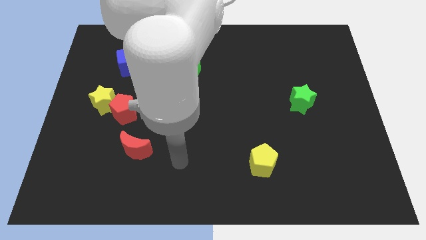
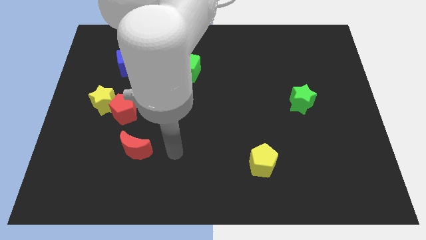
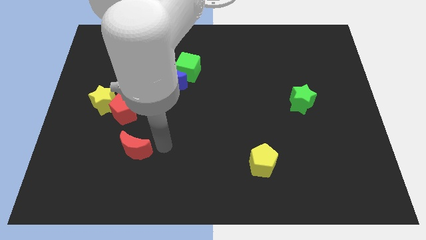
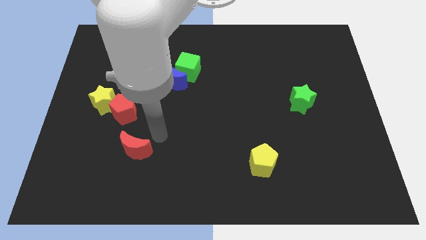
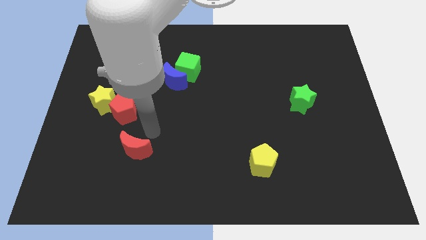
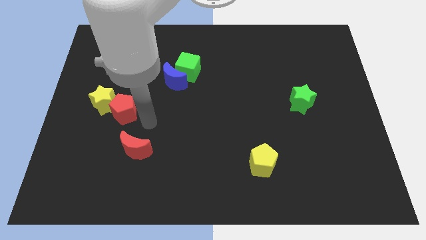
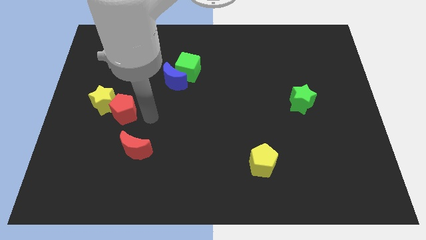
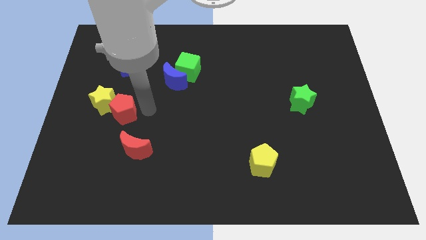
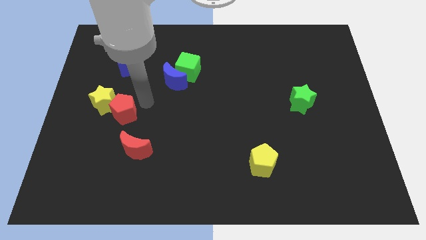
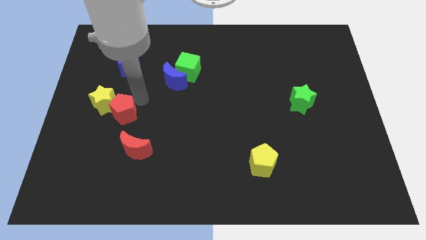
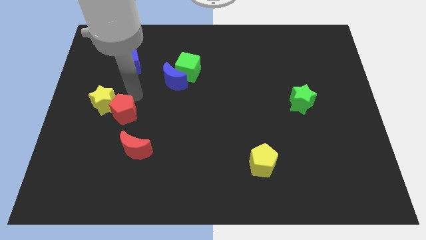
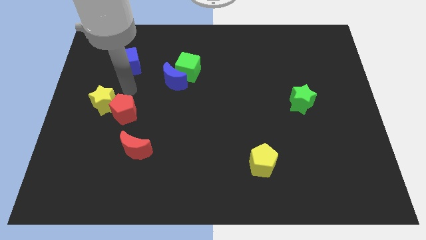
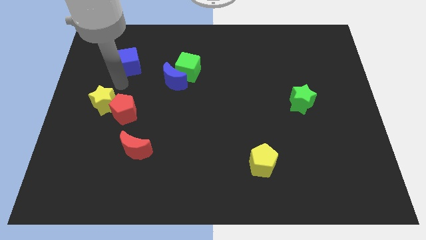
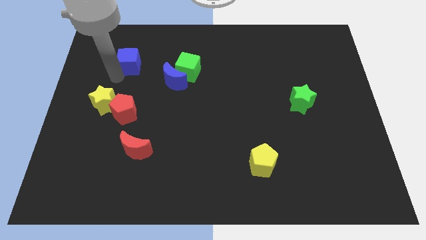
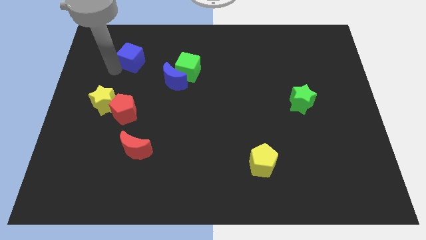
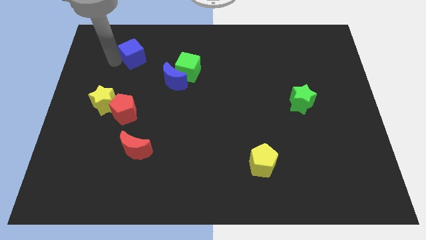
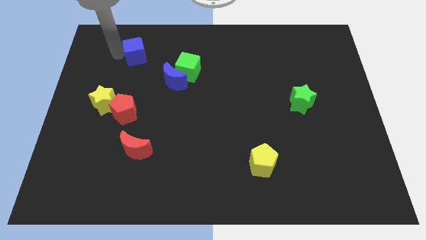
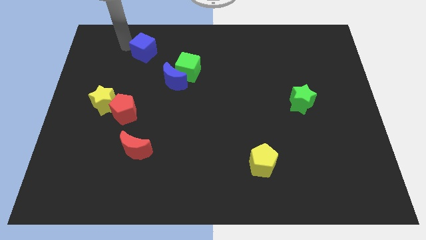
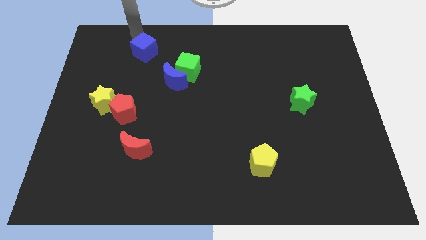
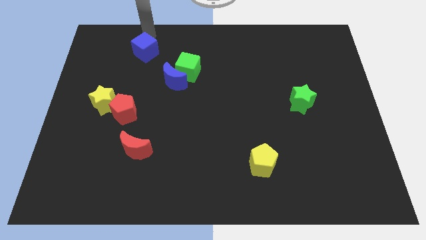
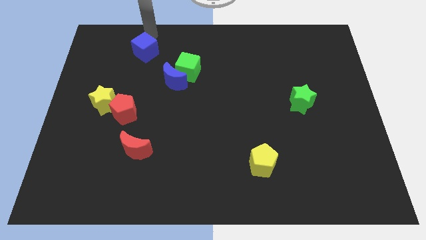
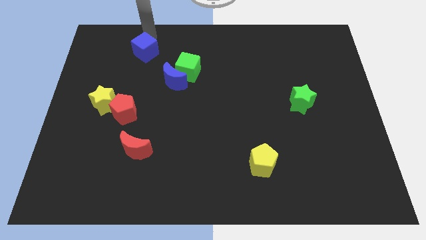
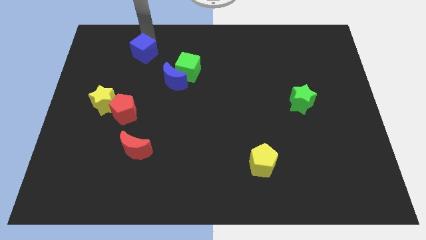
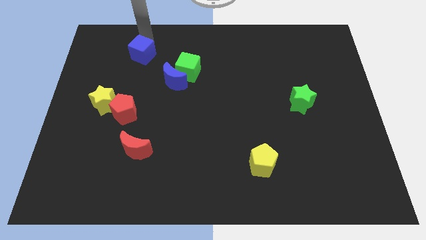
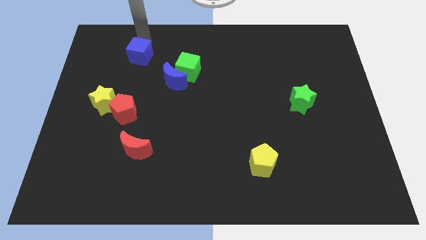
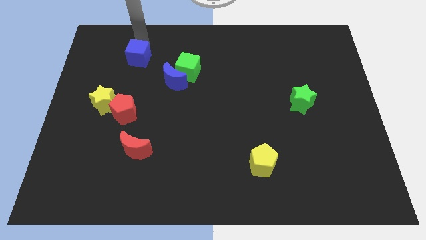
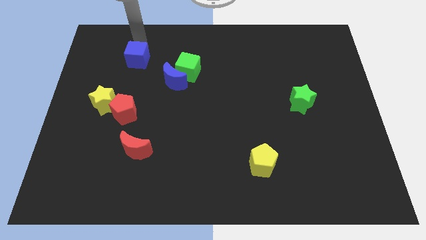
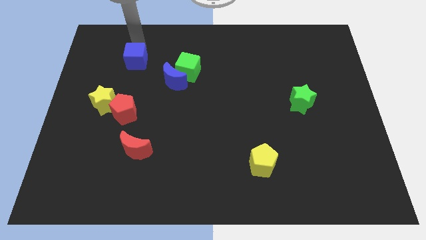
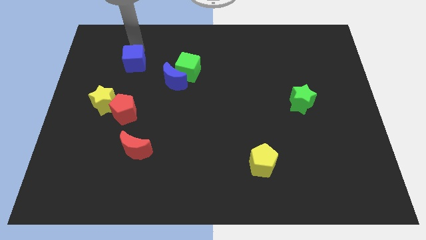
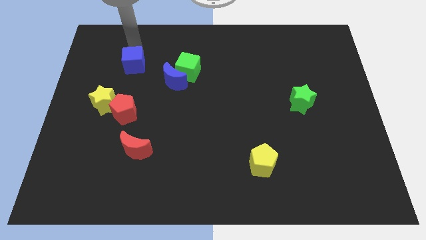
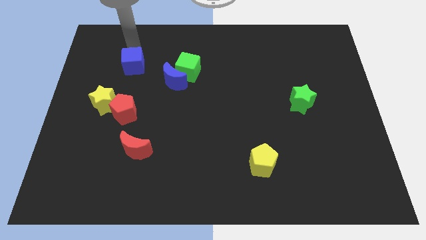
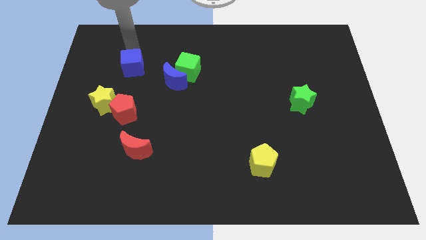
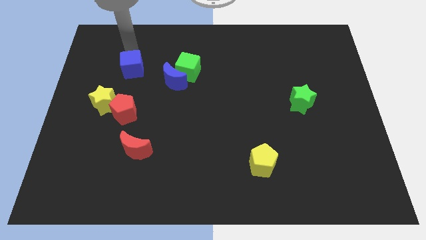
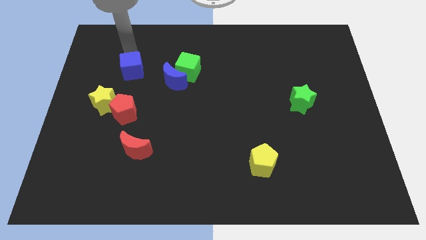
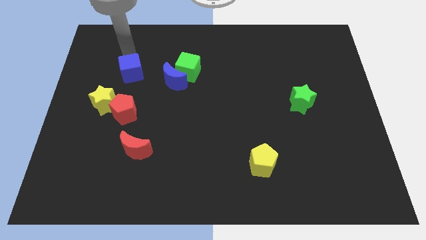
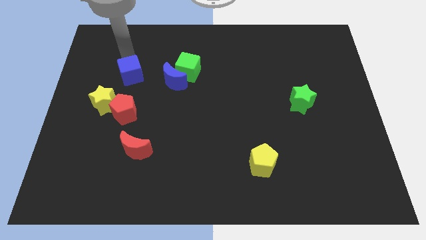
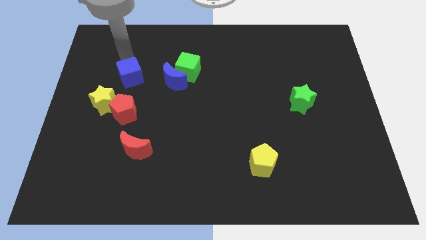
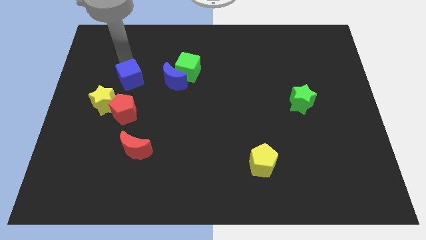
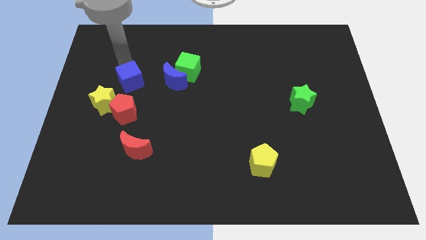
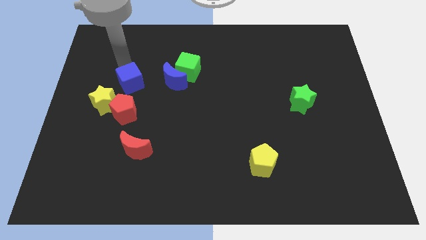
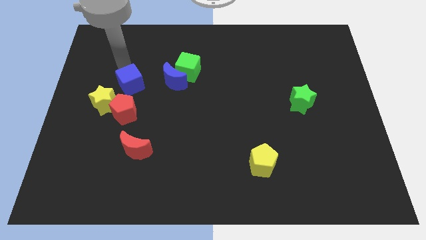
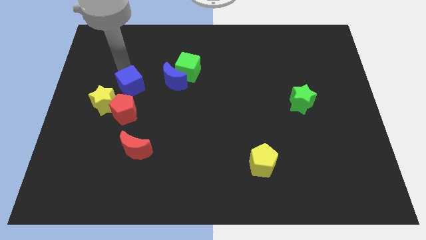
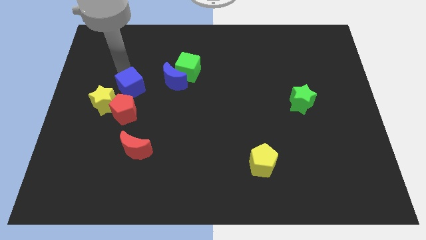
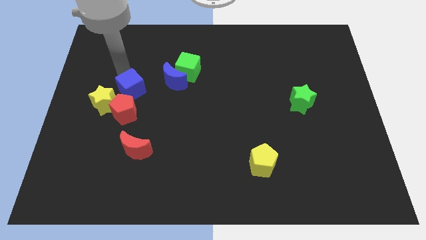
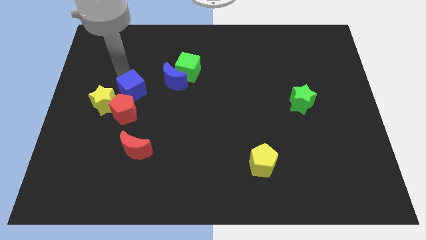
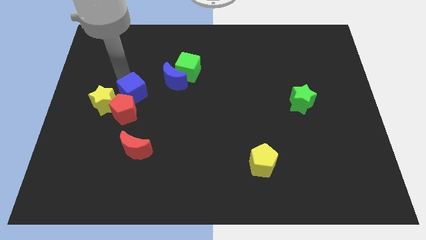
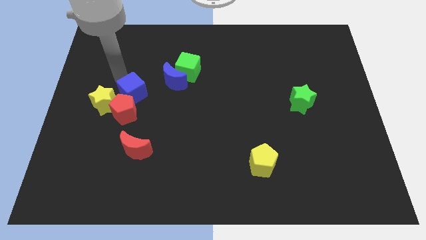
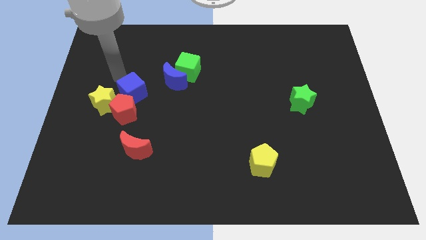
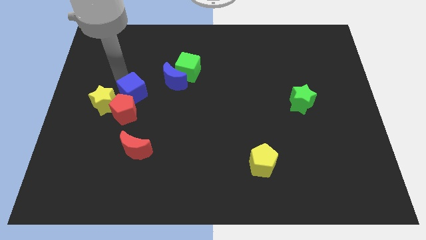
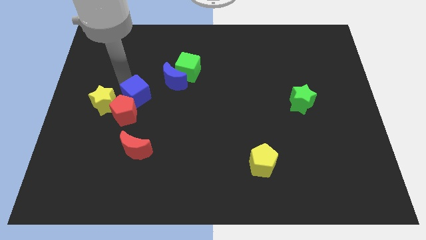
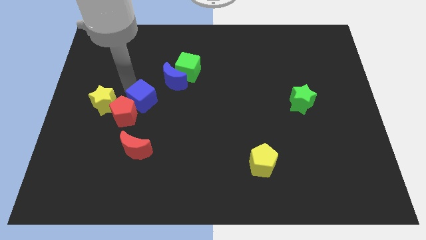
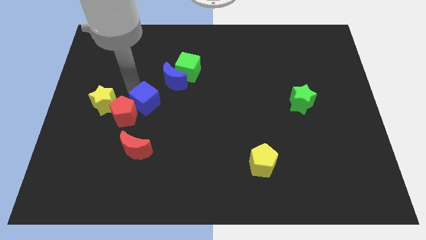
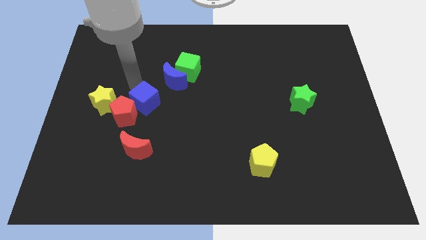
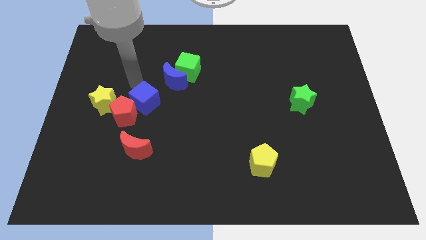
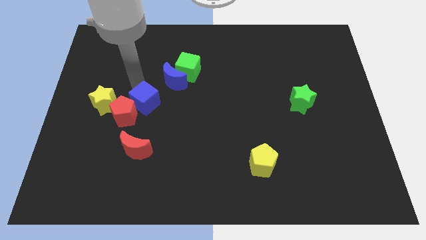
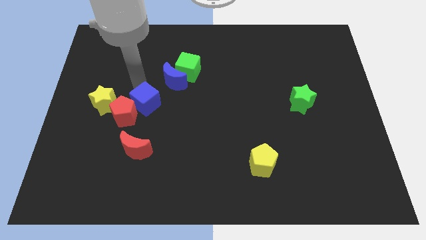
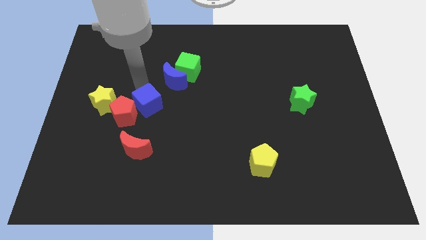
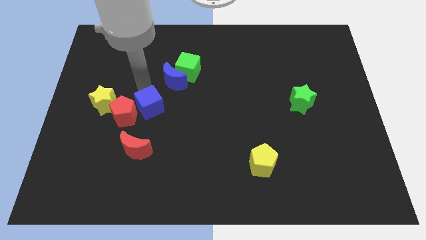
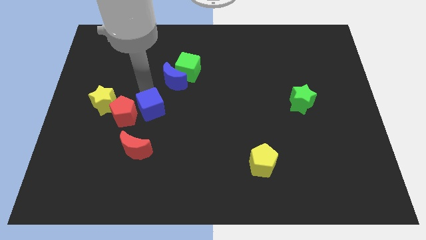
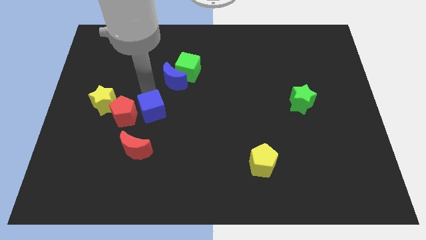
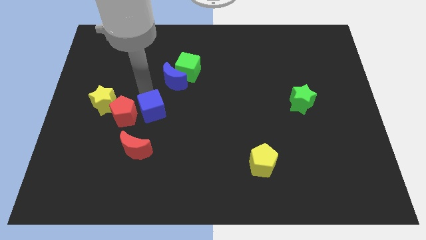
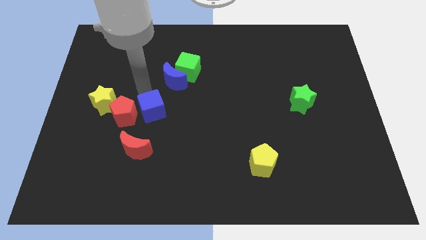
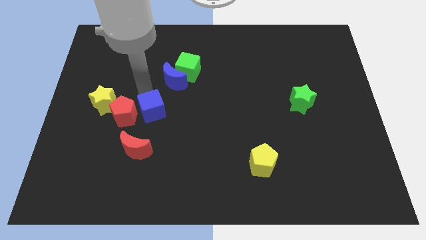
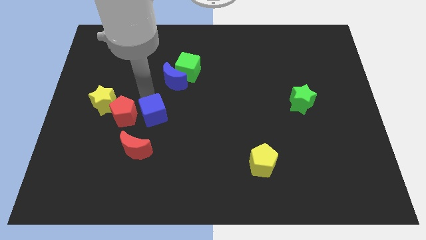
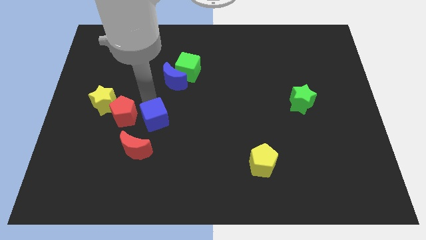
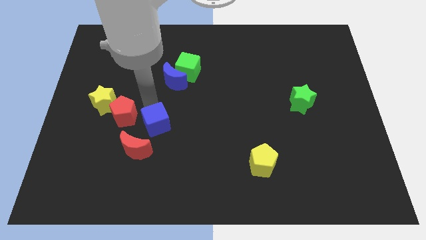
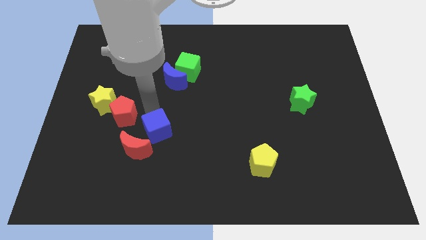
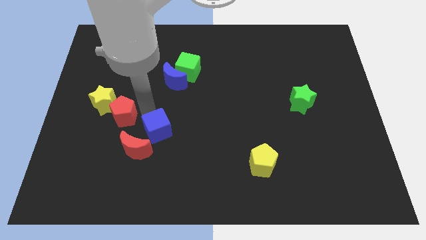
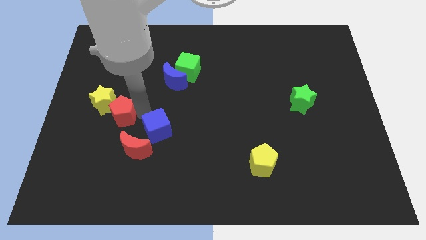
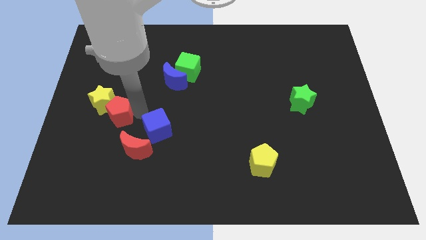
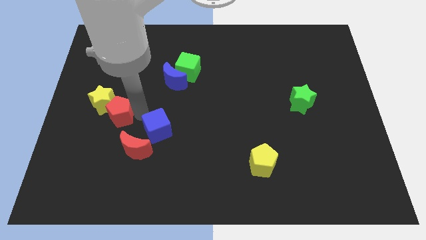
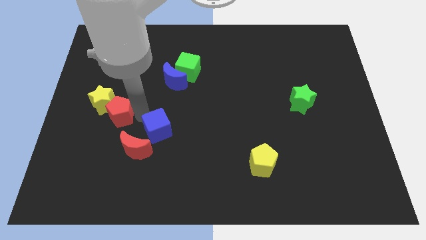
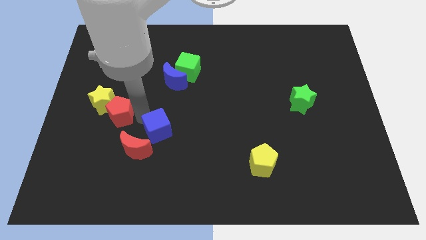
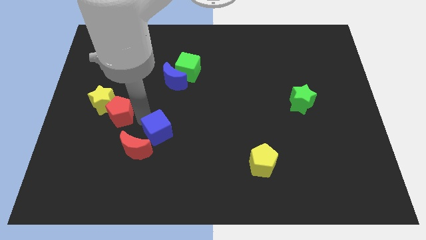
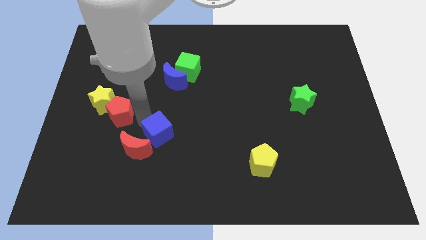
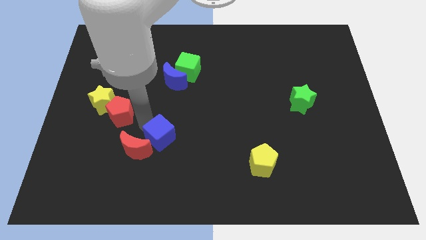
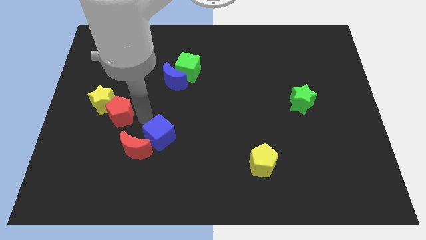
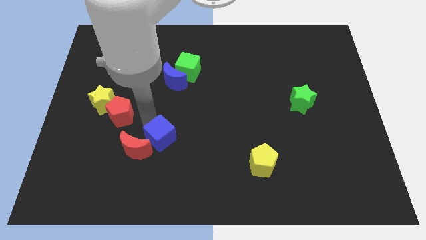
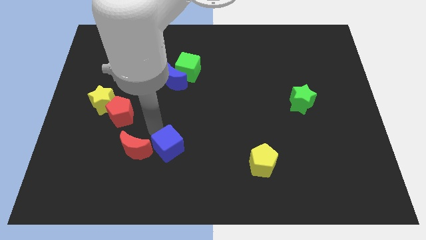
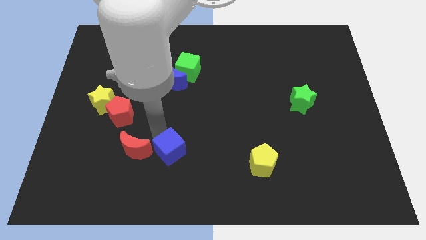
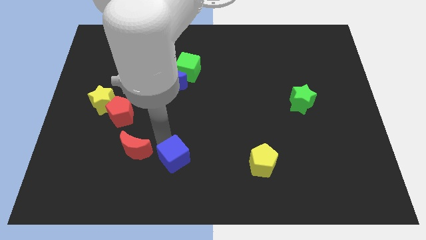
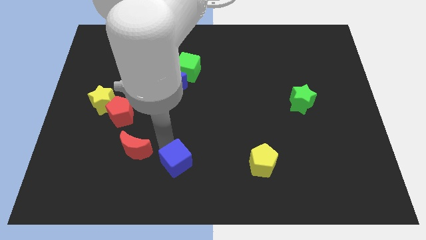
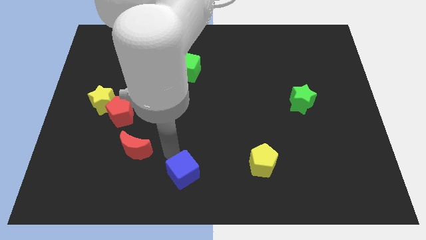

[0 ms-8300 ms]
slide the blue cube to the bottom
